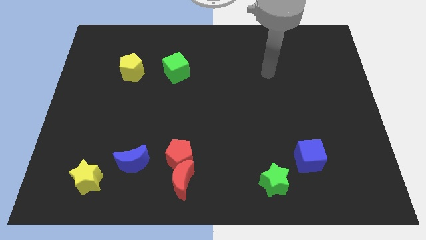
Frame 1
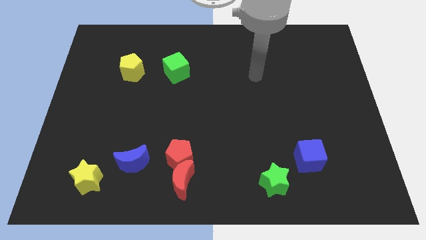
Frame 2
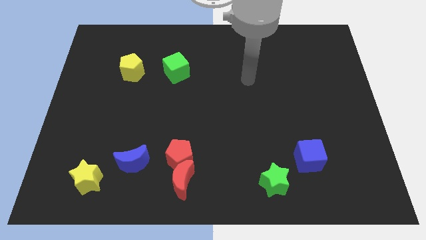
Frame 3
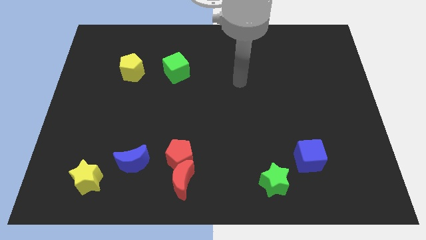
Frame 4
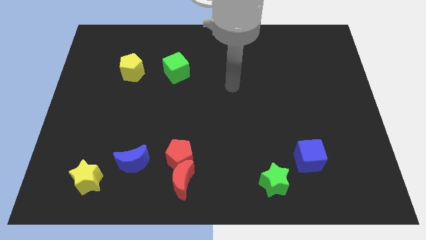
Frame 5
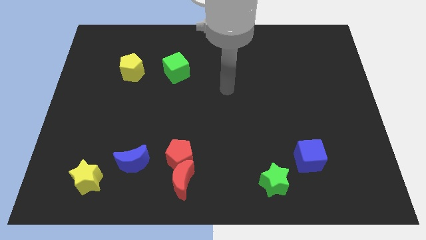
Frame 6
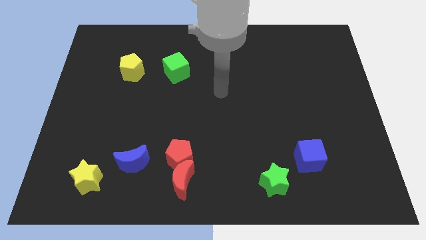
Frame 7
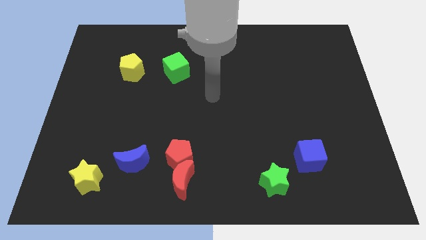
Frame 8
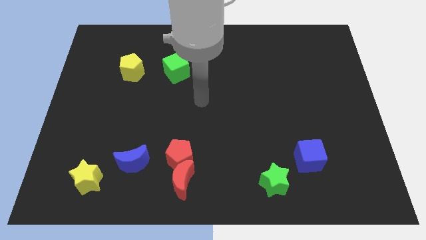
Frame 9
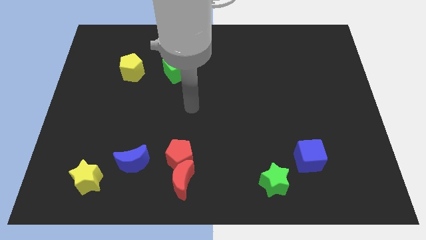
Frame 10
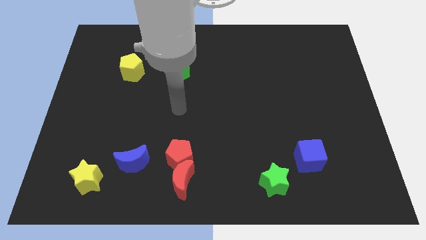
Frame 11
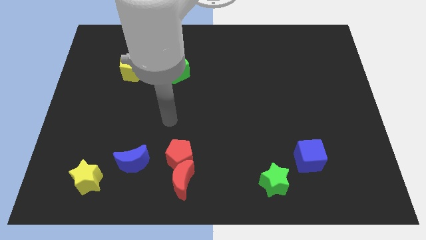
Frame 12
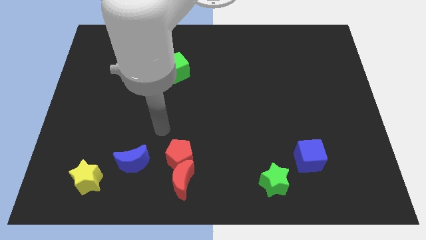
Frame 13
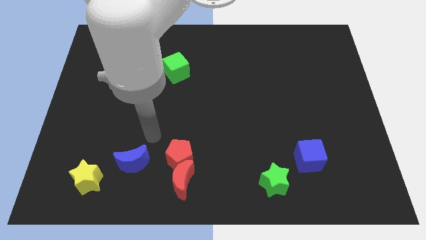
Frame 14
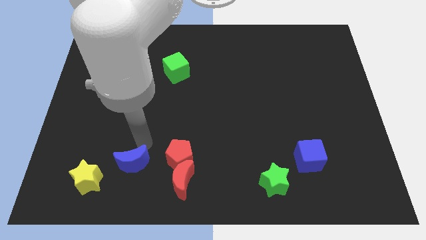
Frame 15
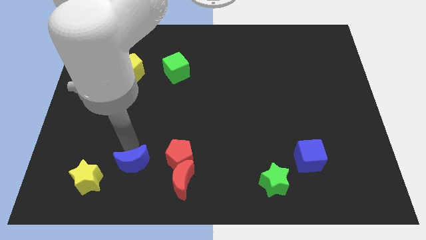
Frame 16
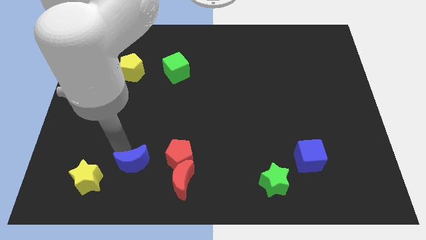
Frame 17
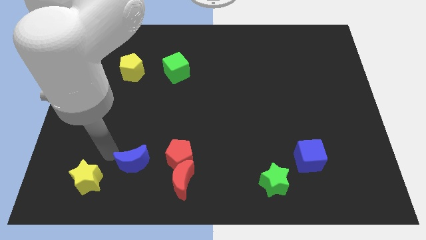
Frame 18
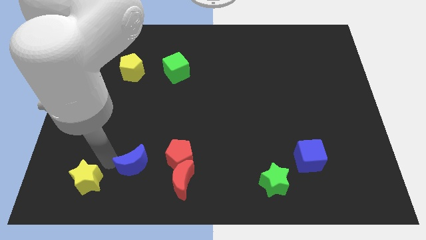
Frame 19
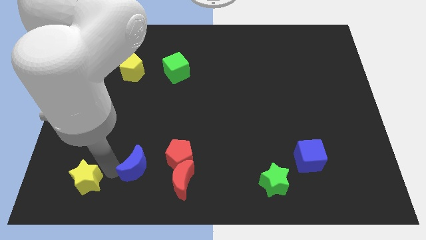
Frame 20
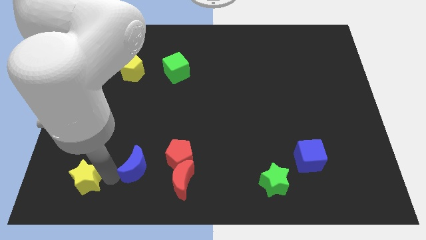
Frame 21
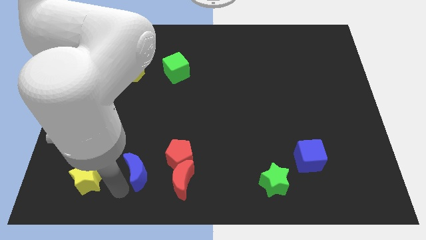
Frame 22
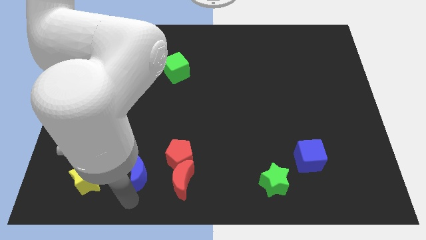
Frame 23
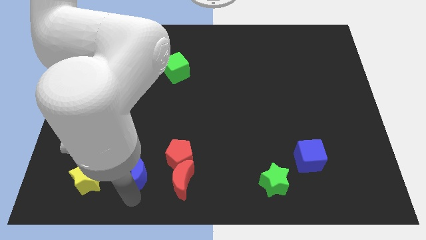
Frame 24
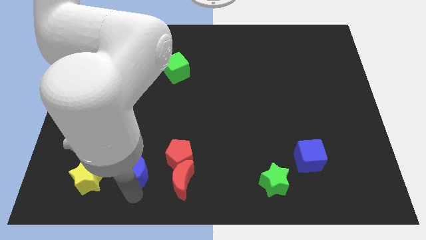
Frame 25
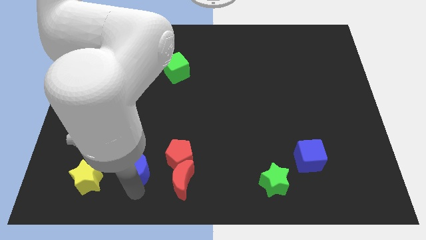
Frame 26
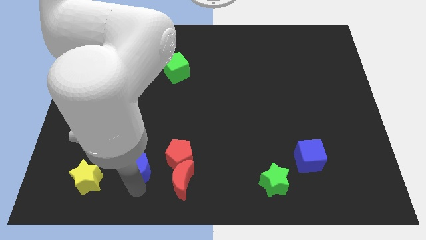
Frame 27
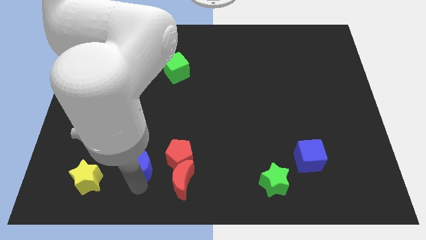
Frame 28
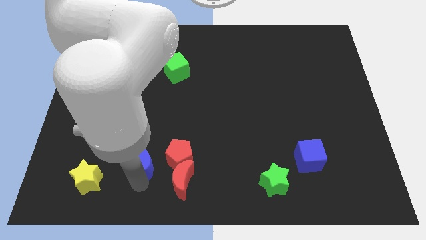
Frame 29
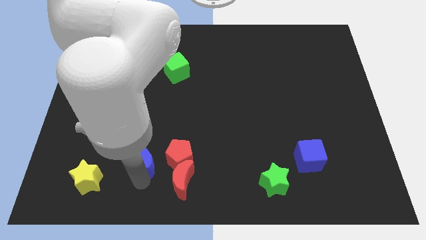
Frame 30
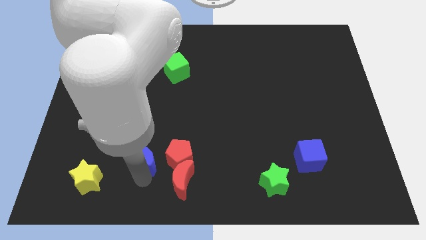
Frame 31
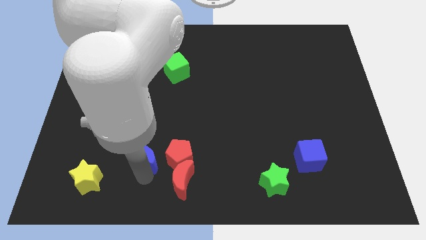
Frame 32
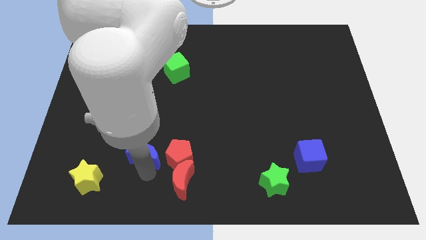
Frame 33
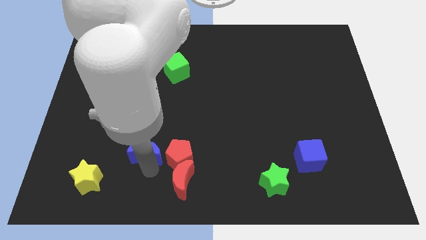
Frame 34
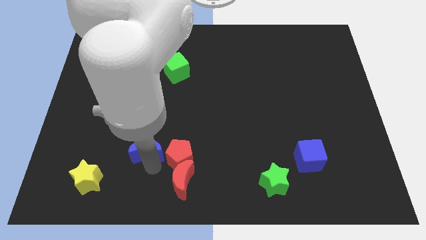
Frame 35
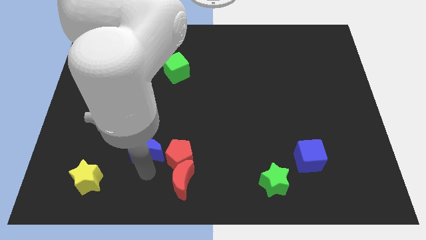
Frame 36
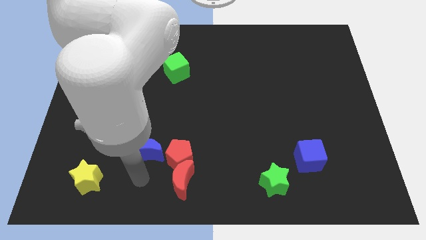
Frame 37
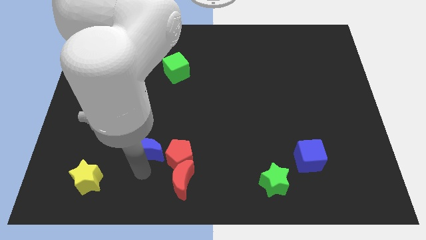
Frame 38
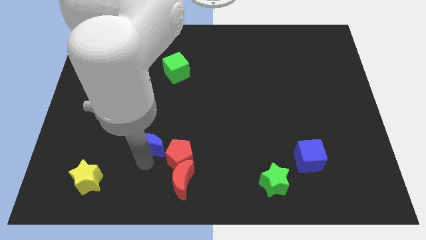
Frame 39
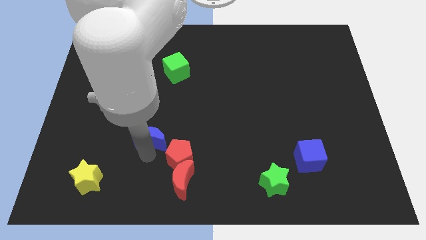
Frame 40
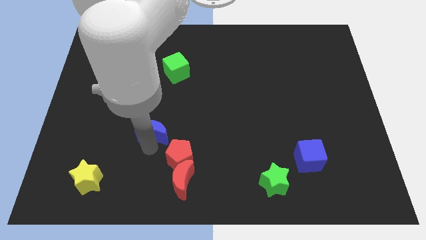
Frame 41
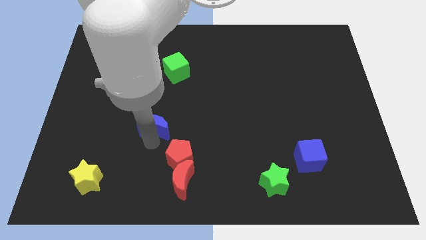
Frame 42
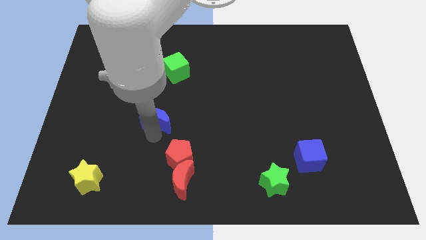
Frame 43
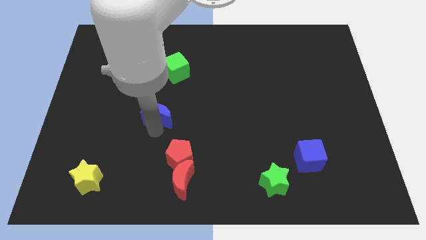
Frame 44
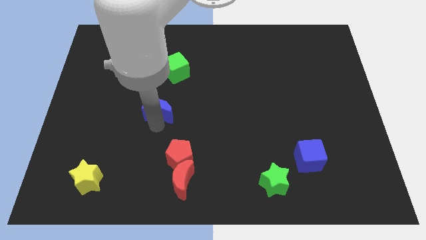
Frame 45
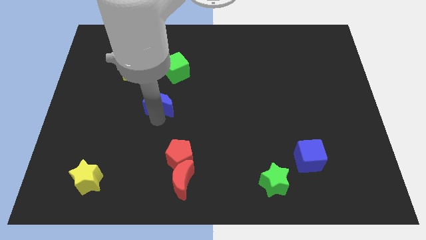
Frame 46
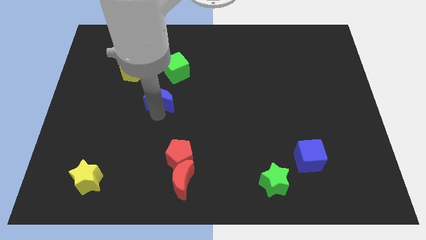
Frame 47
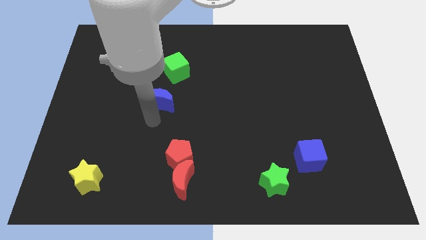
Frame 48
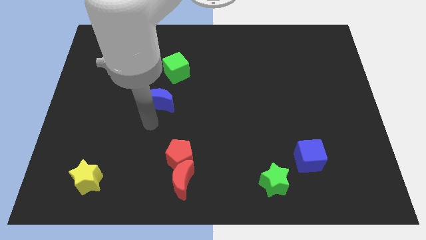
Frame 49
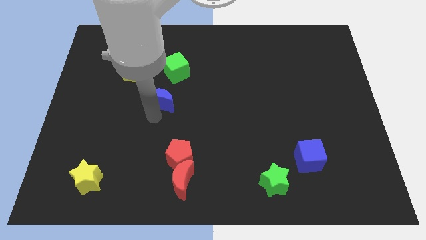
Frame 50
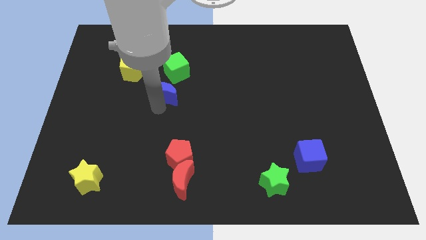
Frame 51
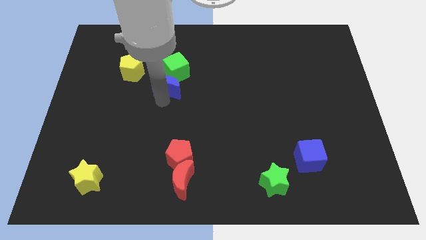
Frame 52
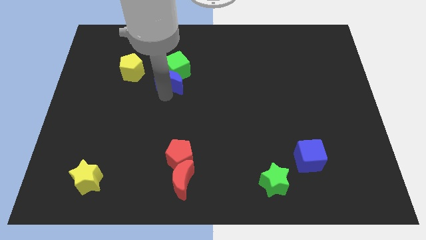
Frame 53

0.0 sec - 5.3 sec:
put the blue moon towards the green cube
